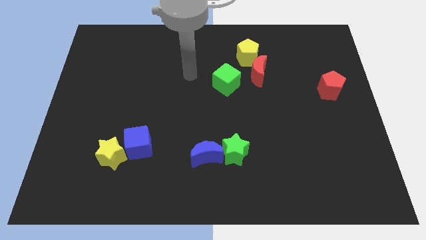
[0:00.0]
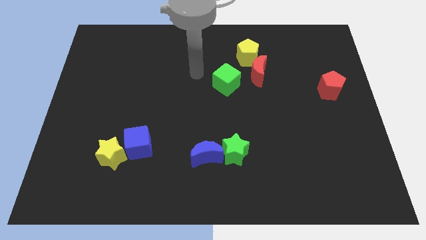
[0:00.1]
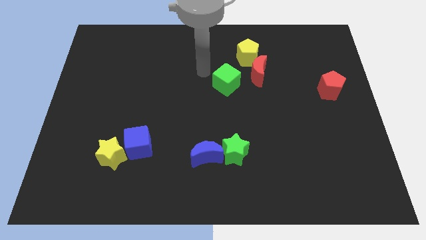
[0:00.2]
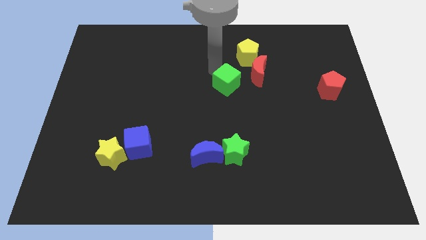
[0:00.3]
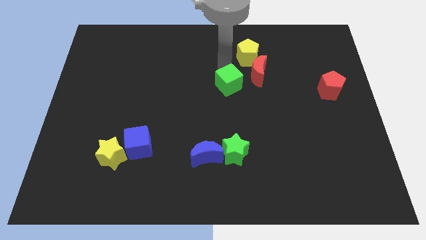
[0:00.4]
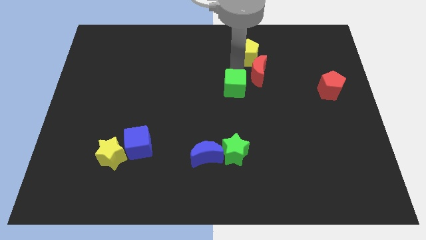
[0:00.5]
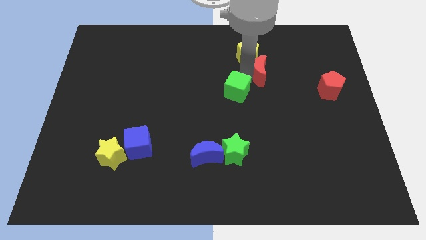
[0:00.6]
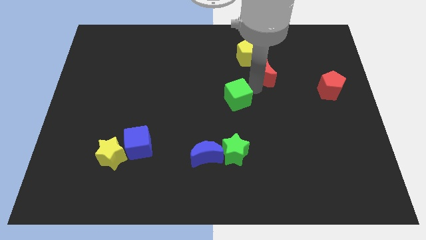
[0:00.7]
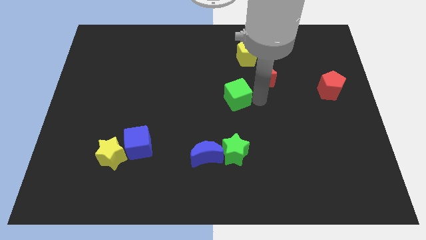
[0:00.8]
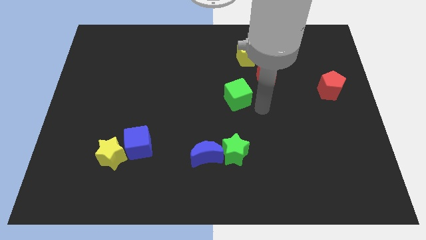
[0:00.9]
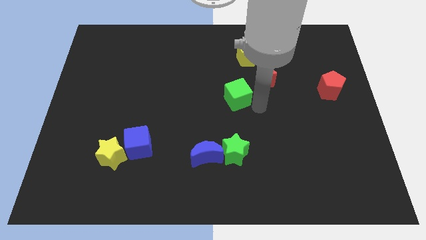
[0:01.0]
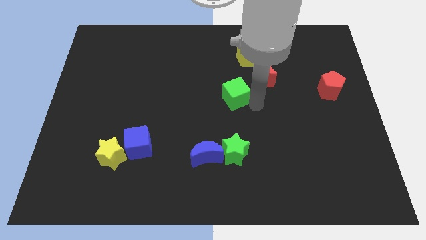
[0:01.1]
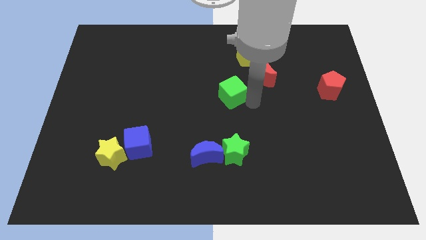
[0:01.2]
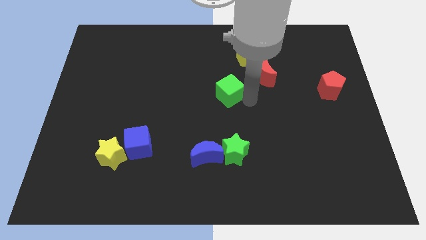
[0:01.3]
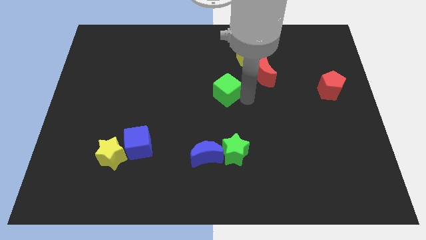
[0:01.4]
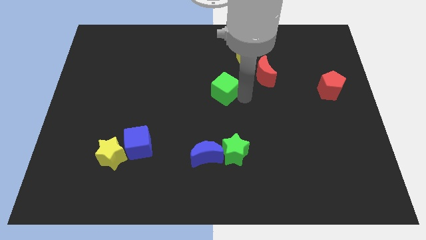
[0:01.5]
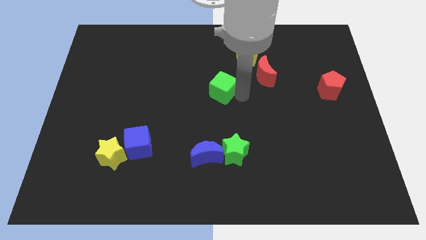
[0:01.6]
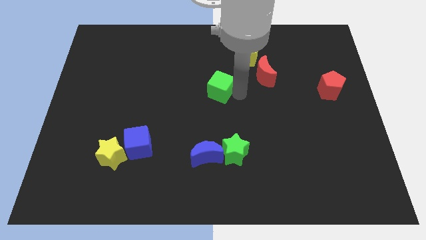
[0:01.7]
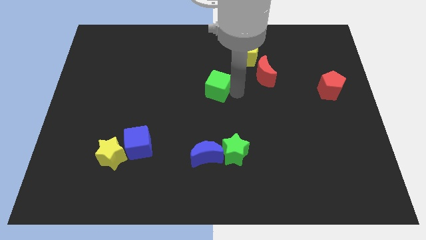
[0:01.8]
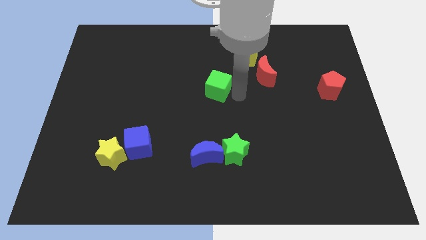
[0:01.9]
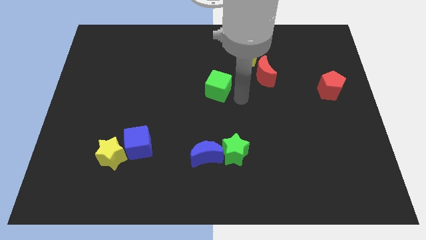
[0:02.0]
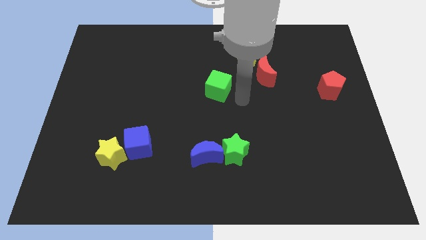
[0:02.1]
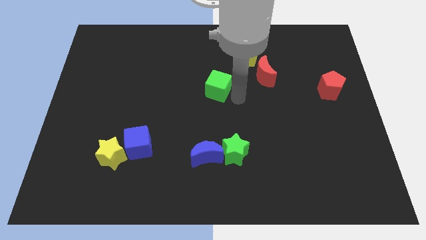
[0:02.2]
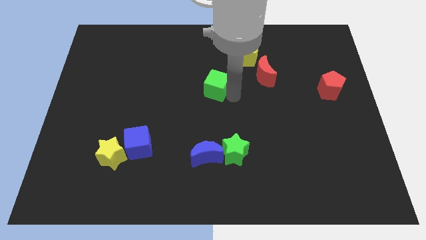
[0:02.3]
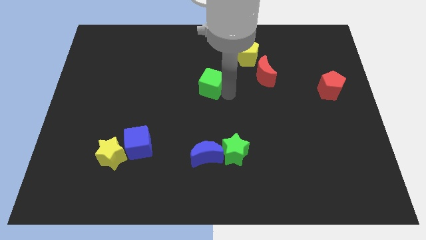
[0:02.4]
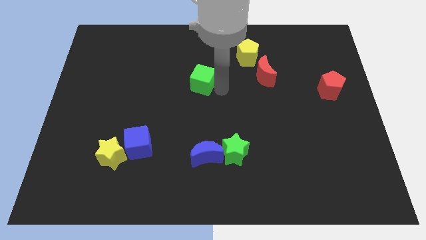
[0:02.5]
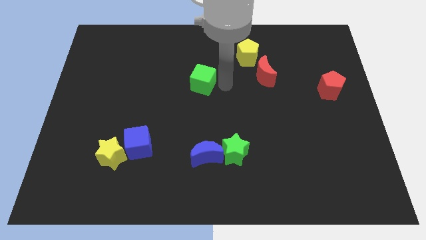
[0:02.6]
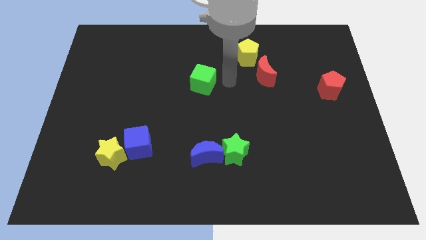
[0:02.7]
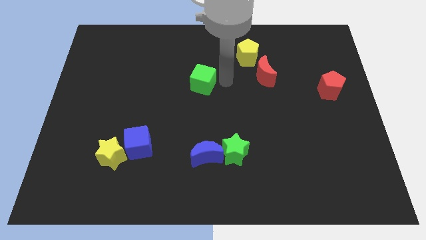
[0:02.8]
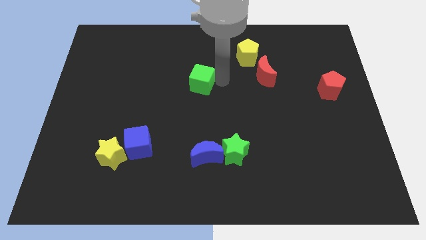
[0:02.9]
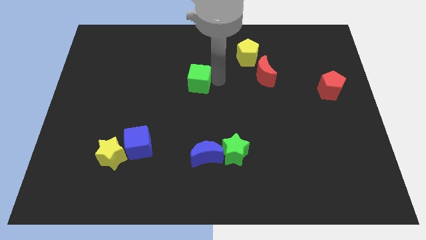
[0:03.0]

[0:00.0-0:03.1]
slightly slide the green cube left

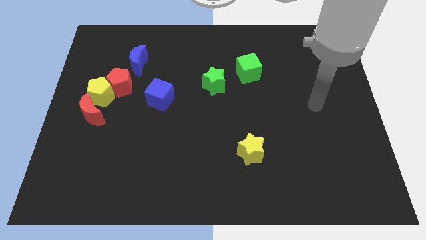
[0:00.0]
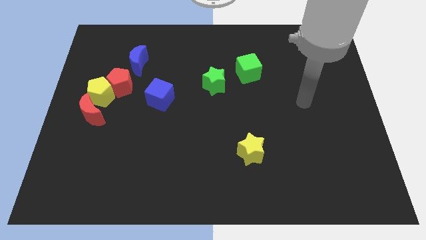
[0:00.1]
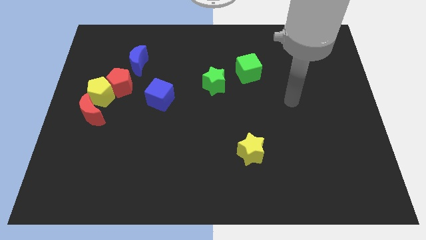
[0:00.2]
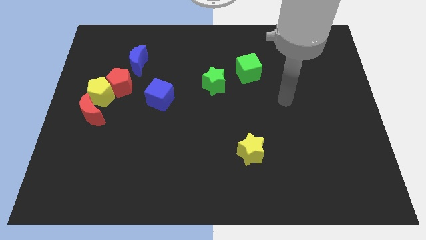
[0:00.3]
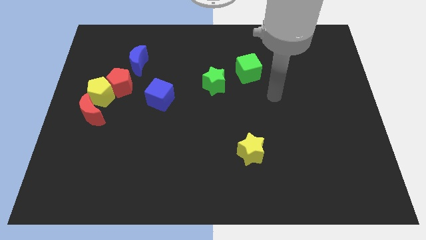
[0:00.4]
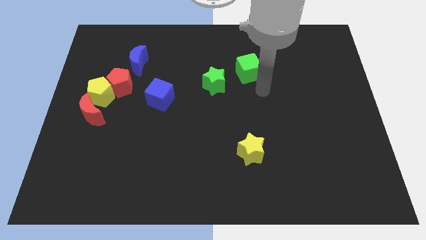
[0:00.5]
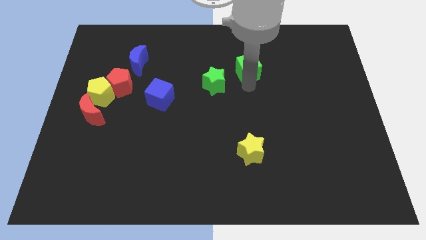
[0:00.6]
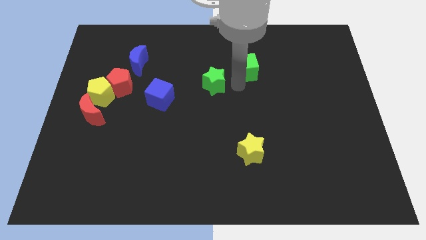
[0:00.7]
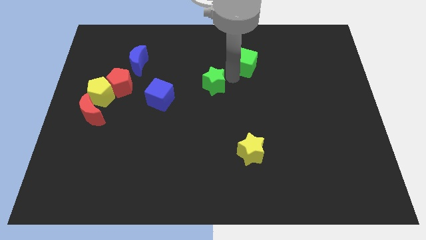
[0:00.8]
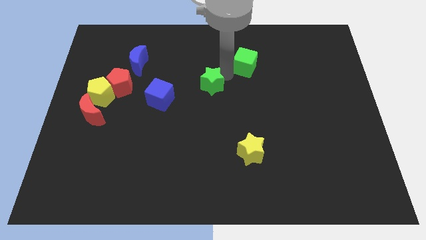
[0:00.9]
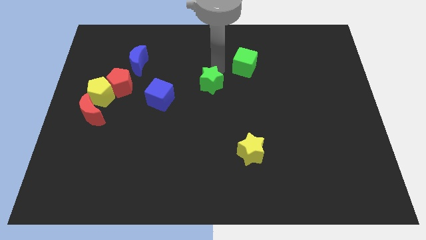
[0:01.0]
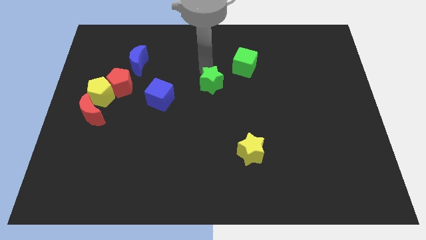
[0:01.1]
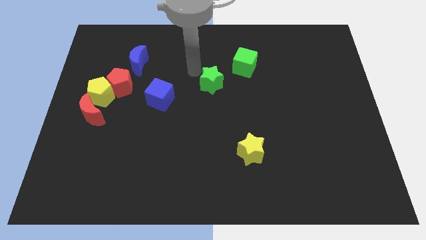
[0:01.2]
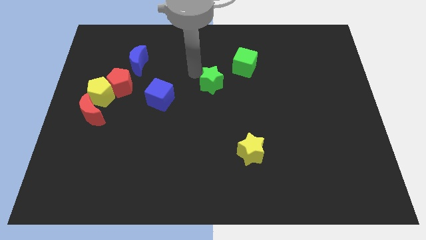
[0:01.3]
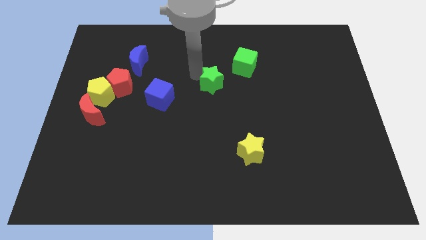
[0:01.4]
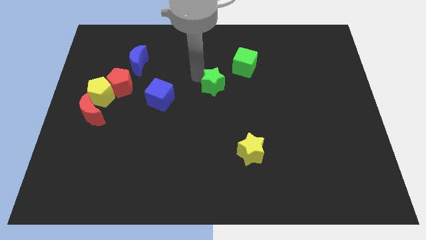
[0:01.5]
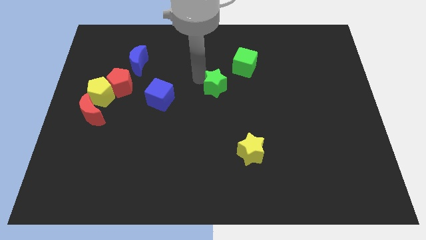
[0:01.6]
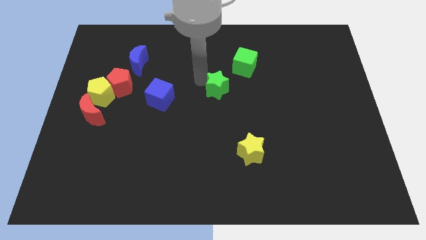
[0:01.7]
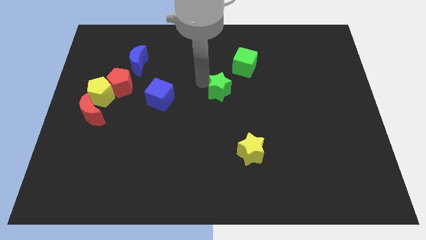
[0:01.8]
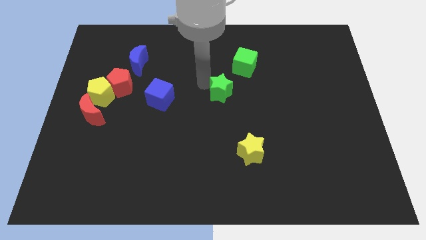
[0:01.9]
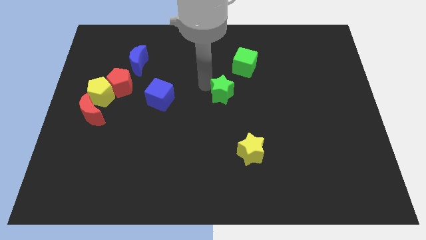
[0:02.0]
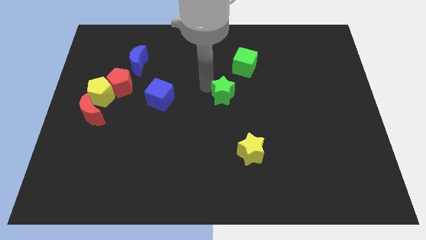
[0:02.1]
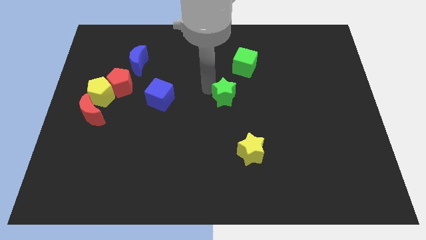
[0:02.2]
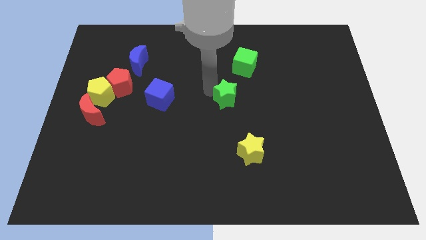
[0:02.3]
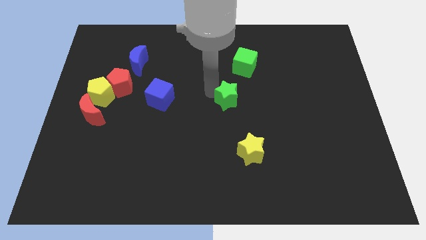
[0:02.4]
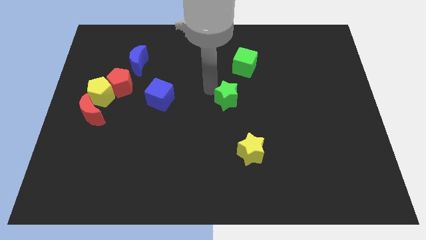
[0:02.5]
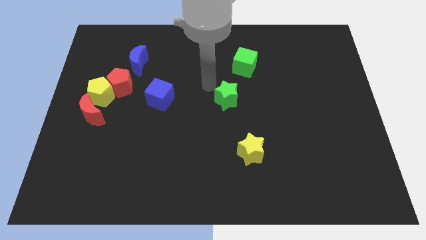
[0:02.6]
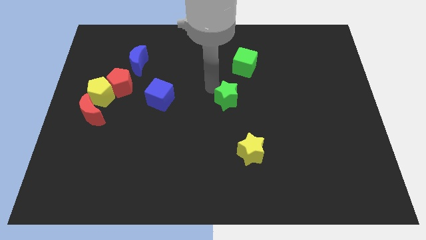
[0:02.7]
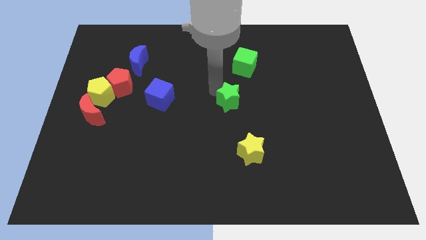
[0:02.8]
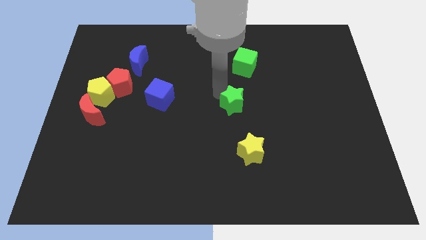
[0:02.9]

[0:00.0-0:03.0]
push the green star slightly down and right

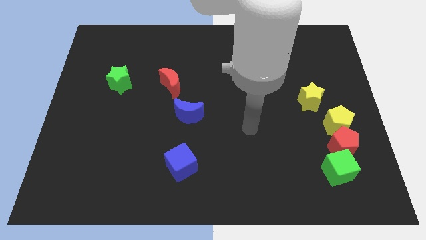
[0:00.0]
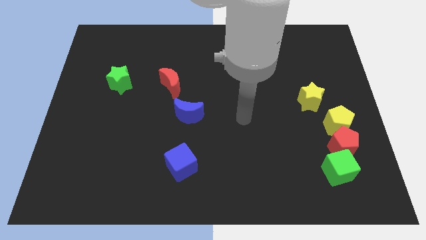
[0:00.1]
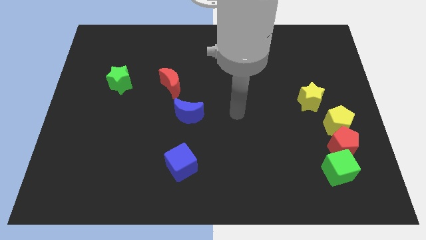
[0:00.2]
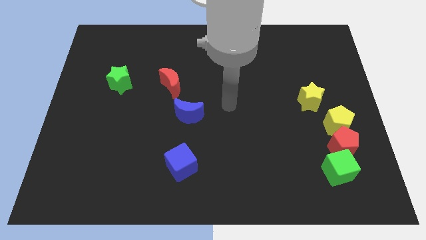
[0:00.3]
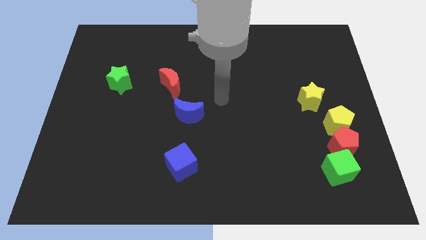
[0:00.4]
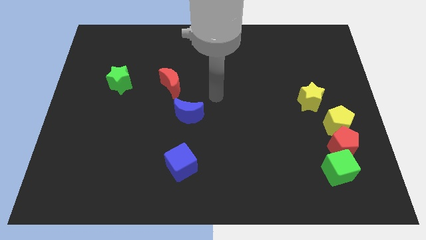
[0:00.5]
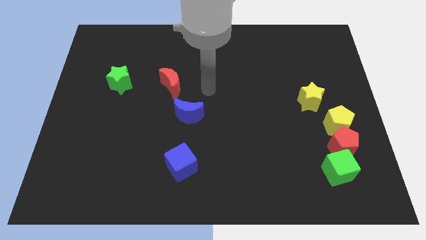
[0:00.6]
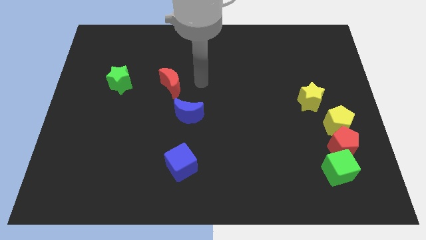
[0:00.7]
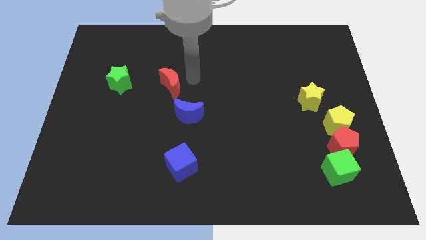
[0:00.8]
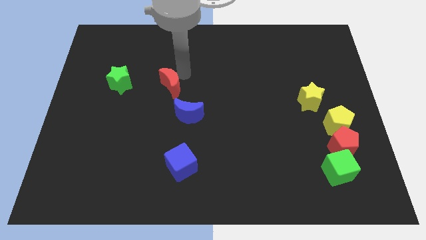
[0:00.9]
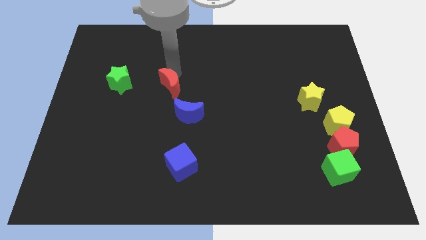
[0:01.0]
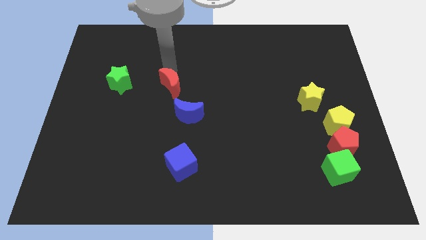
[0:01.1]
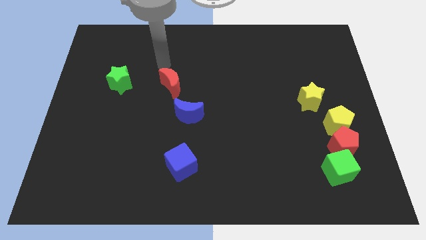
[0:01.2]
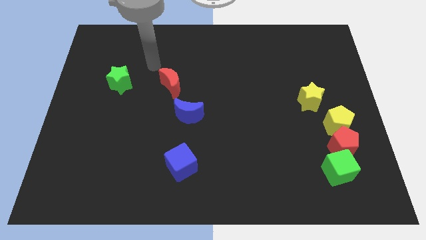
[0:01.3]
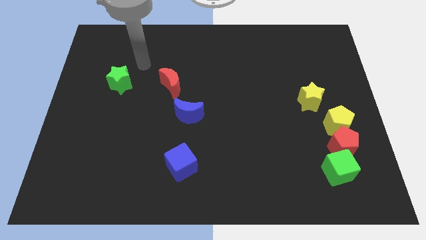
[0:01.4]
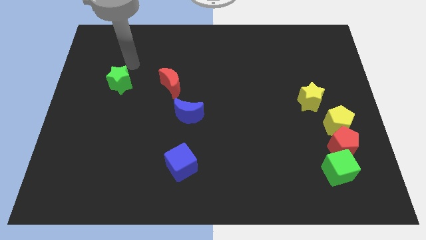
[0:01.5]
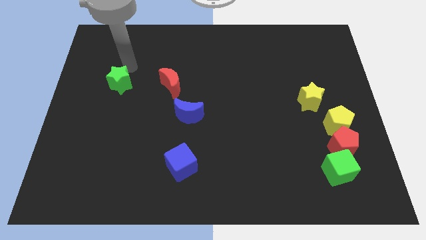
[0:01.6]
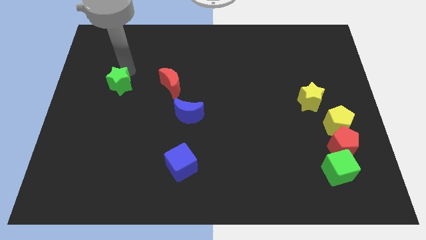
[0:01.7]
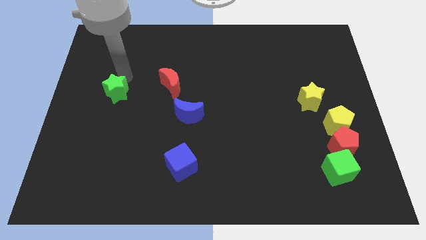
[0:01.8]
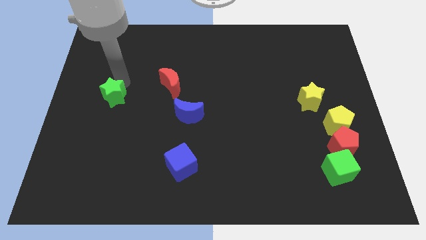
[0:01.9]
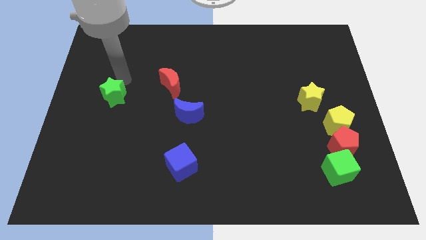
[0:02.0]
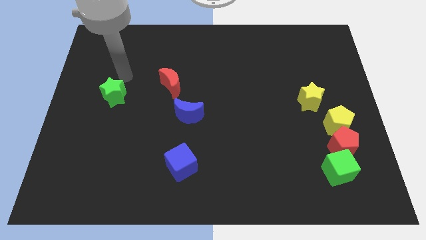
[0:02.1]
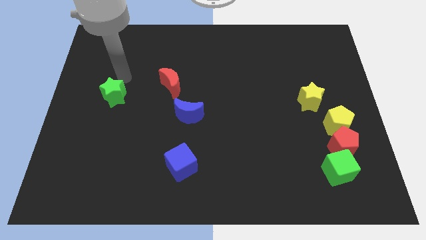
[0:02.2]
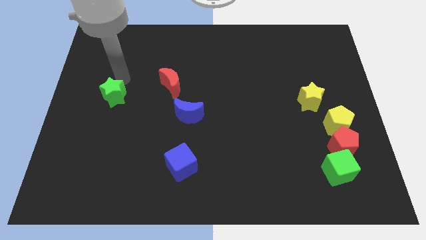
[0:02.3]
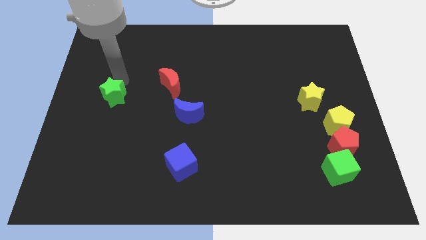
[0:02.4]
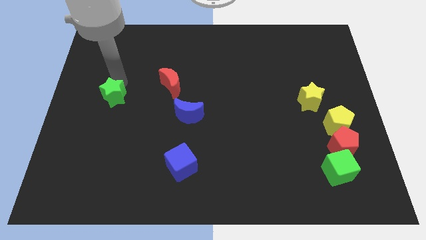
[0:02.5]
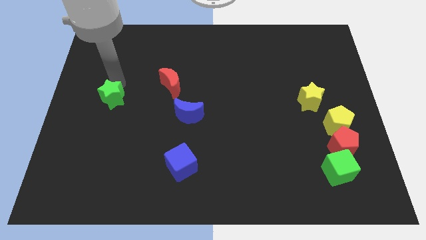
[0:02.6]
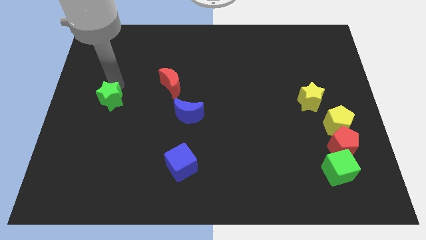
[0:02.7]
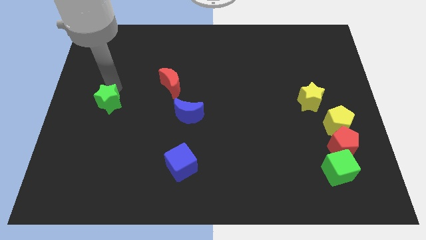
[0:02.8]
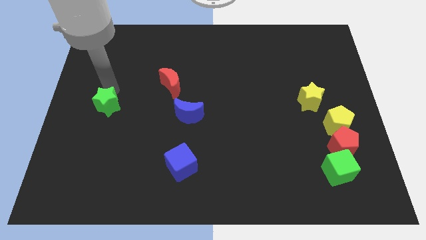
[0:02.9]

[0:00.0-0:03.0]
slightly slide the green star downwards
